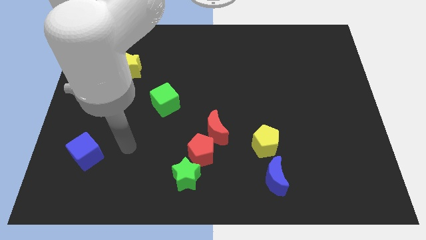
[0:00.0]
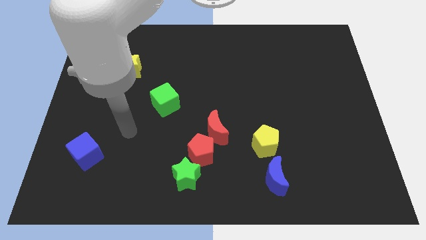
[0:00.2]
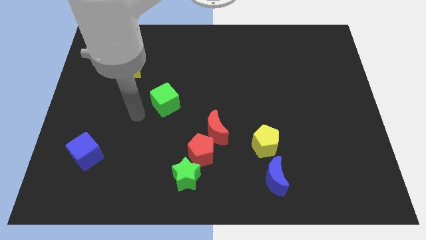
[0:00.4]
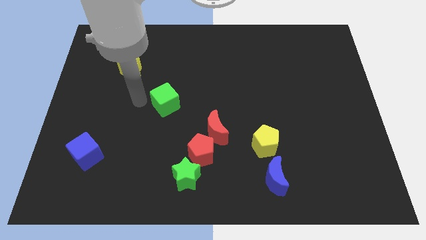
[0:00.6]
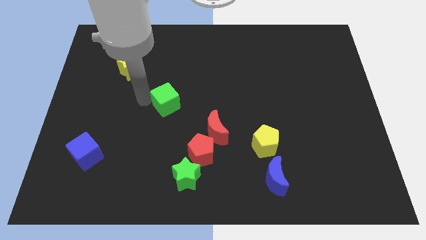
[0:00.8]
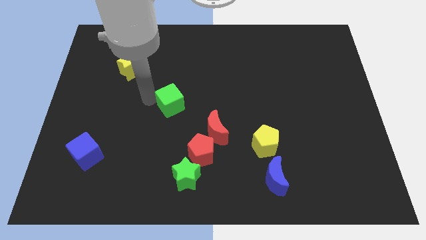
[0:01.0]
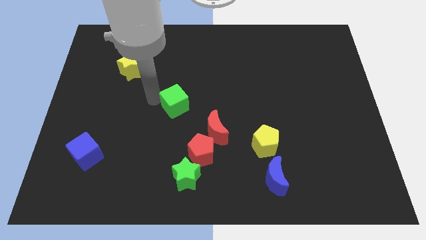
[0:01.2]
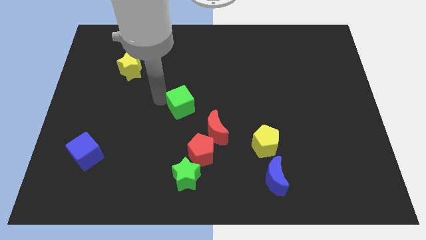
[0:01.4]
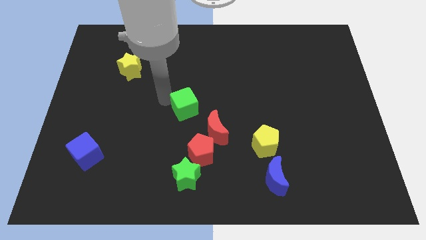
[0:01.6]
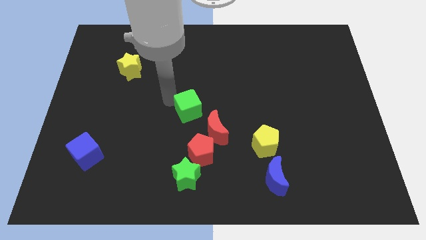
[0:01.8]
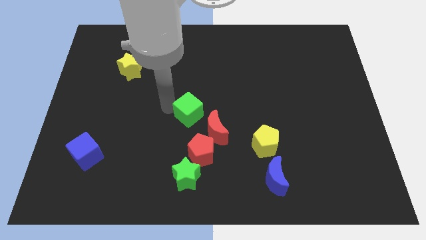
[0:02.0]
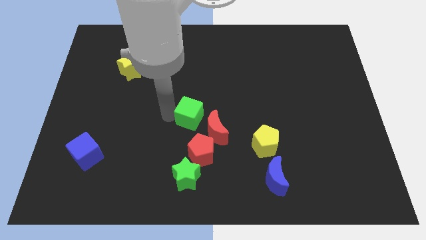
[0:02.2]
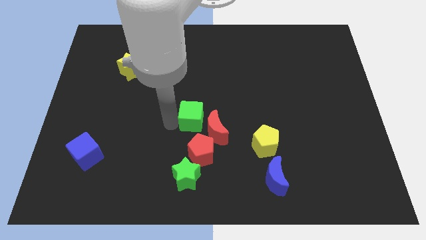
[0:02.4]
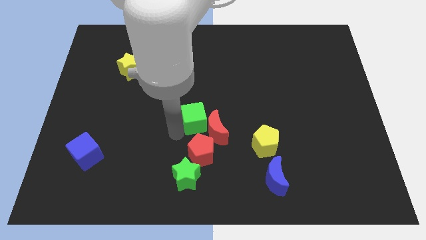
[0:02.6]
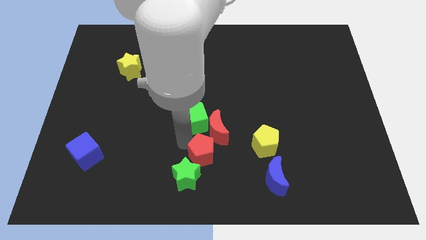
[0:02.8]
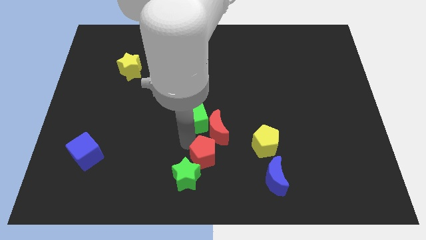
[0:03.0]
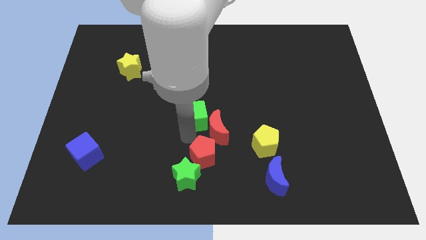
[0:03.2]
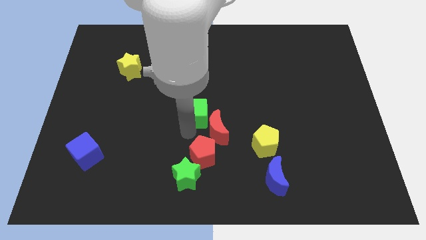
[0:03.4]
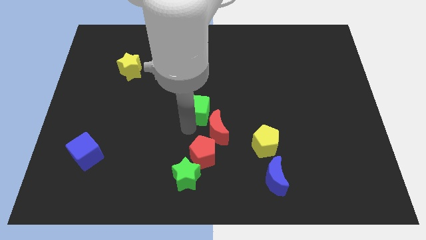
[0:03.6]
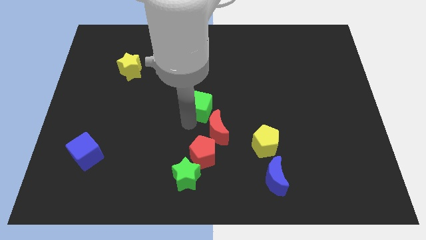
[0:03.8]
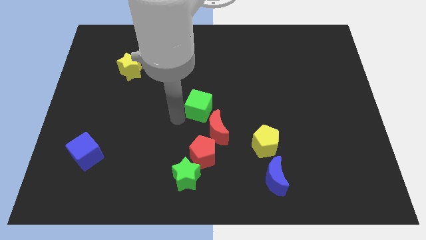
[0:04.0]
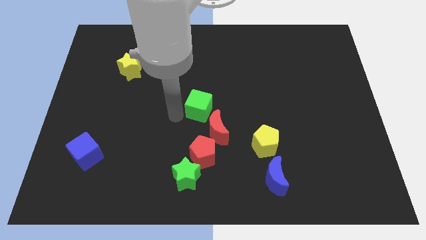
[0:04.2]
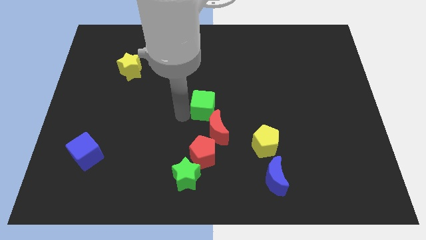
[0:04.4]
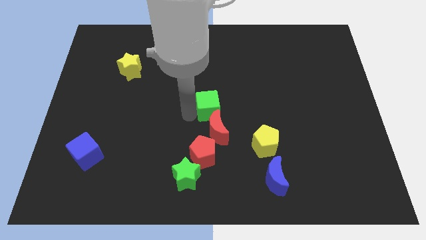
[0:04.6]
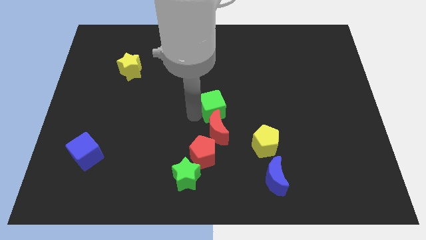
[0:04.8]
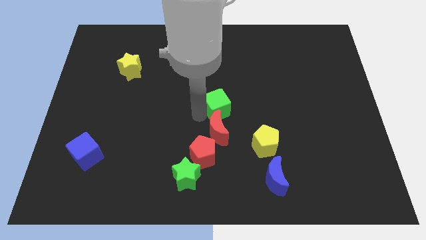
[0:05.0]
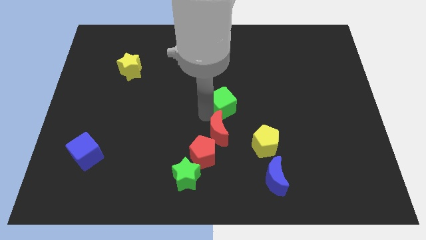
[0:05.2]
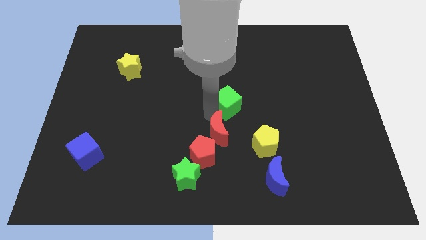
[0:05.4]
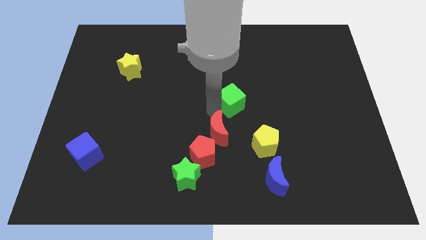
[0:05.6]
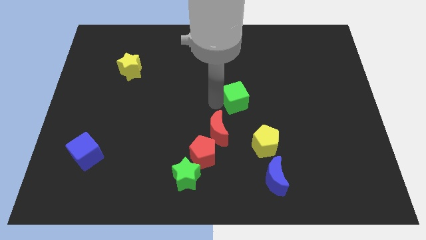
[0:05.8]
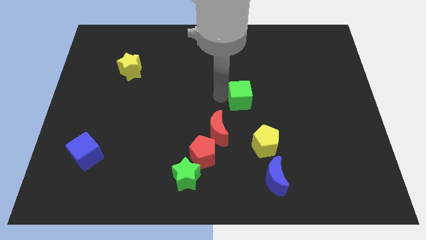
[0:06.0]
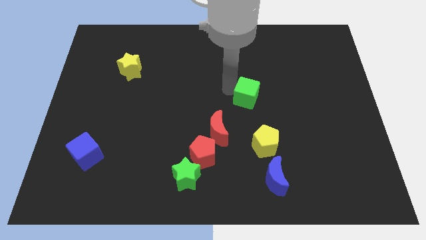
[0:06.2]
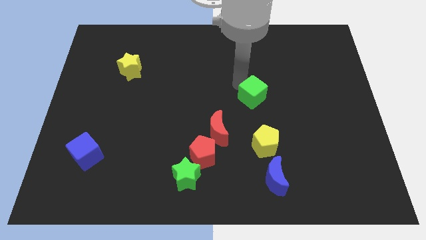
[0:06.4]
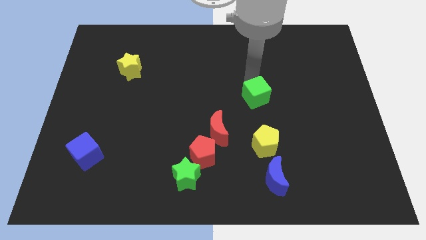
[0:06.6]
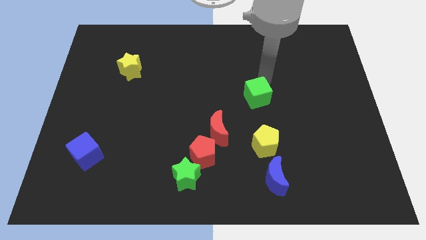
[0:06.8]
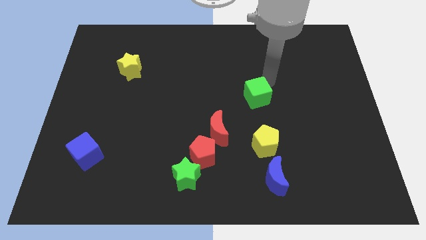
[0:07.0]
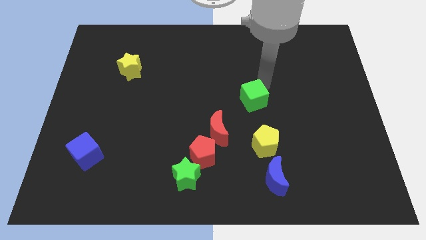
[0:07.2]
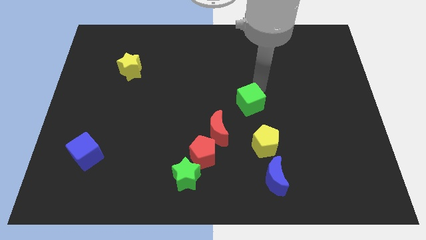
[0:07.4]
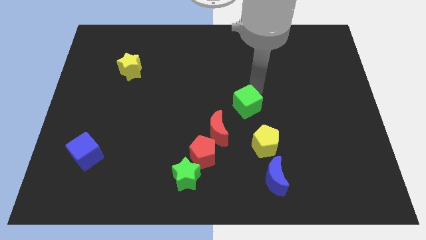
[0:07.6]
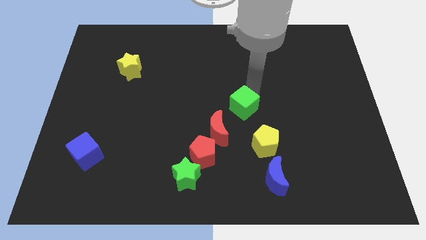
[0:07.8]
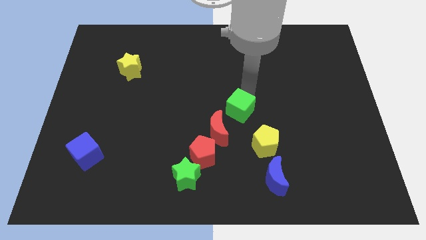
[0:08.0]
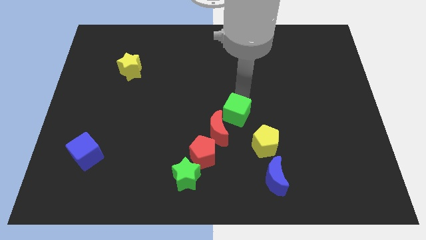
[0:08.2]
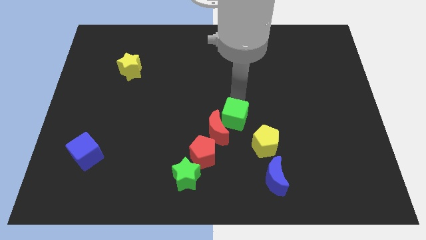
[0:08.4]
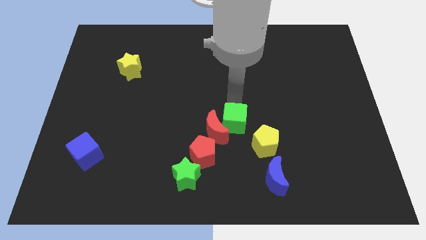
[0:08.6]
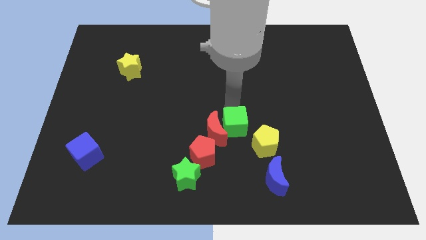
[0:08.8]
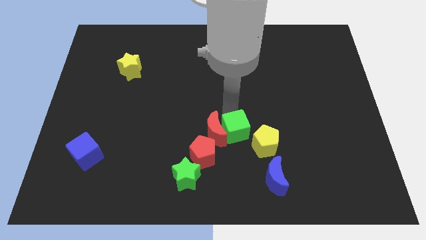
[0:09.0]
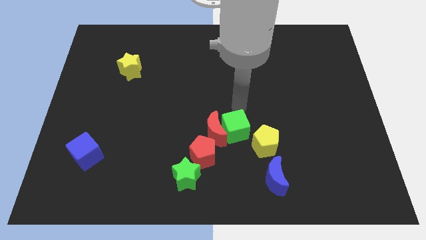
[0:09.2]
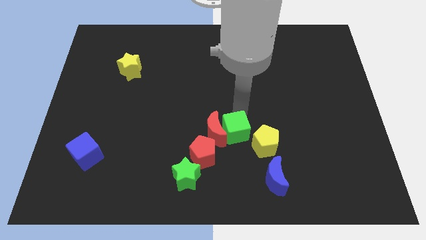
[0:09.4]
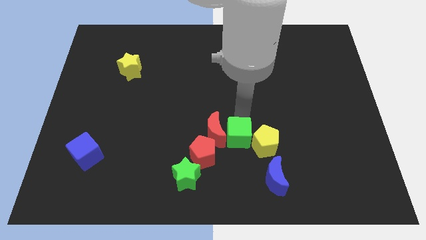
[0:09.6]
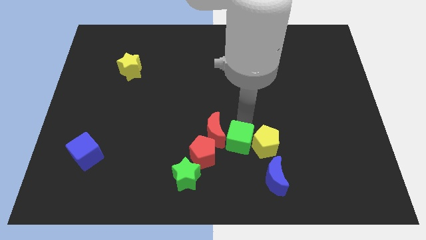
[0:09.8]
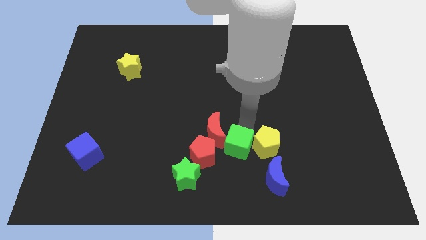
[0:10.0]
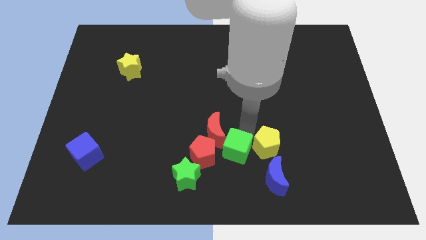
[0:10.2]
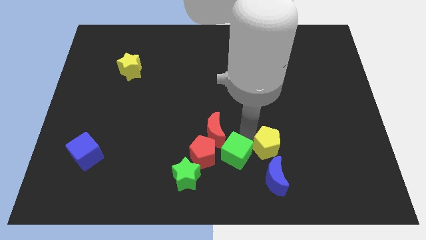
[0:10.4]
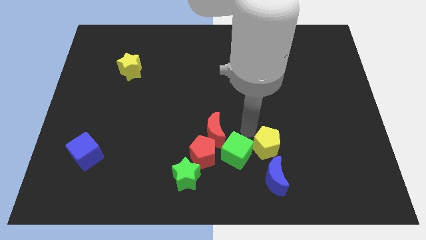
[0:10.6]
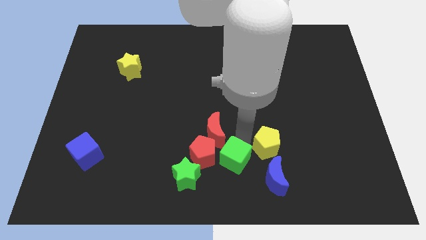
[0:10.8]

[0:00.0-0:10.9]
slide the green cube left of the blue moon

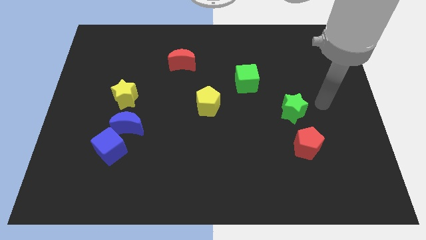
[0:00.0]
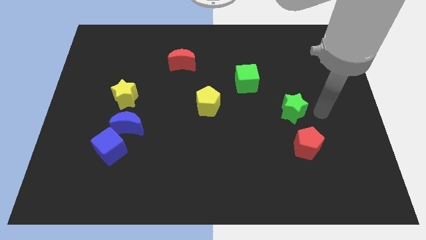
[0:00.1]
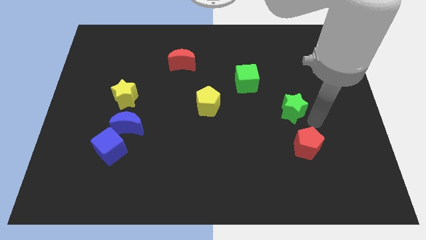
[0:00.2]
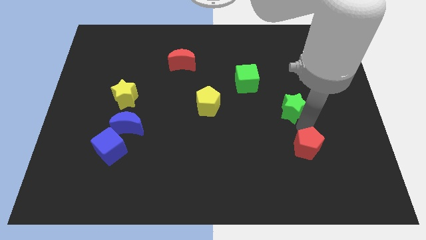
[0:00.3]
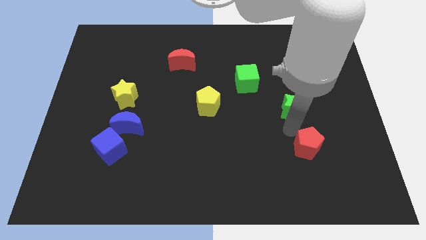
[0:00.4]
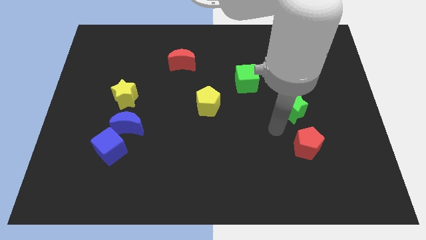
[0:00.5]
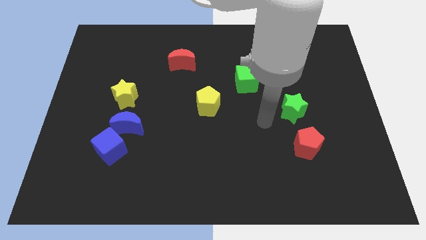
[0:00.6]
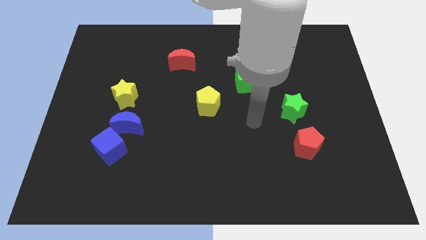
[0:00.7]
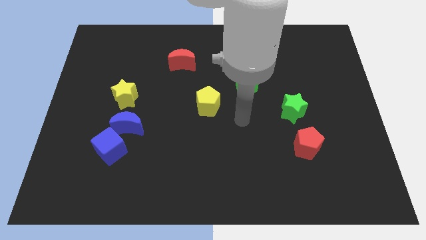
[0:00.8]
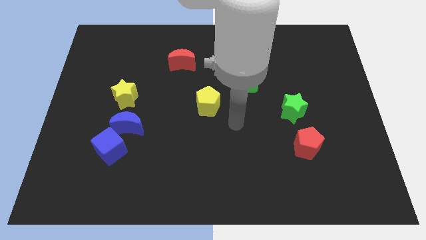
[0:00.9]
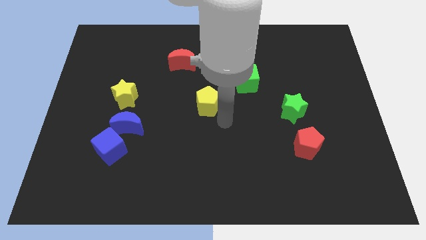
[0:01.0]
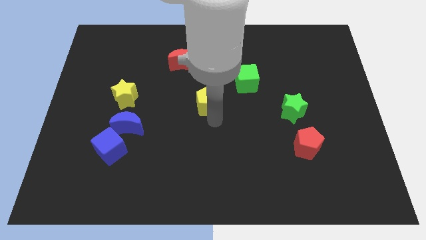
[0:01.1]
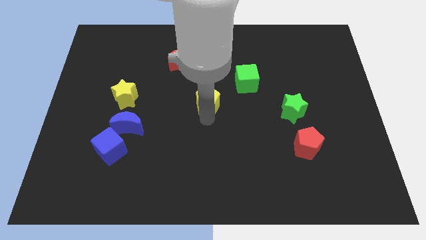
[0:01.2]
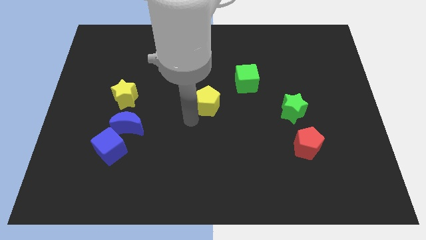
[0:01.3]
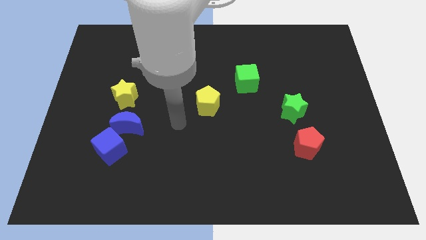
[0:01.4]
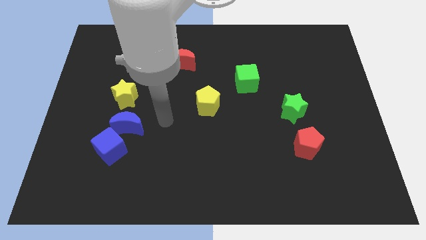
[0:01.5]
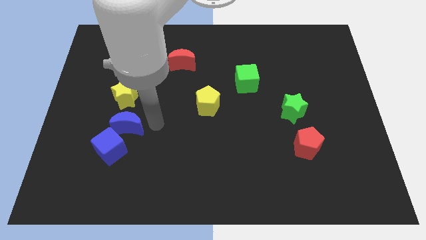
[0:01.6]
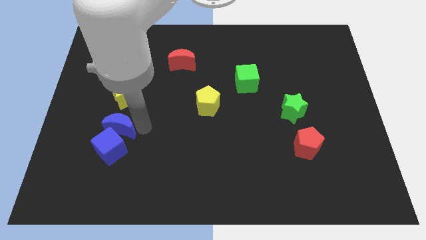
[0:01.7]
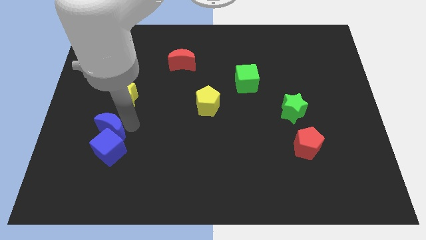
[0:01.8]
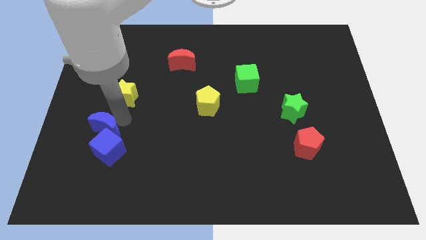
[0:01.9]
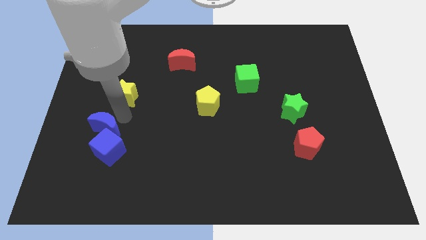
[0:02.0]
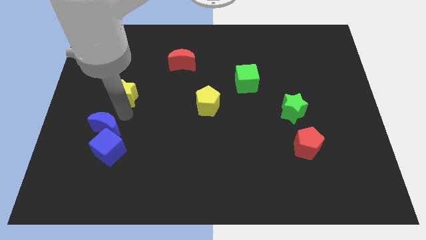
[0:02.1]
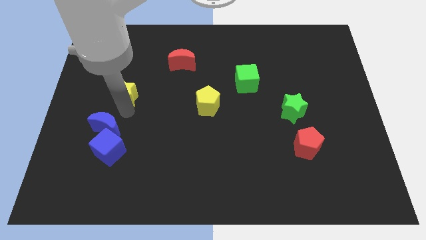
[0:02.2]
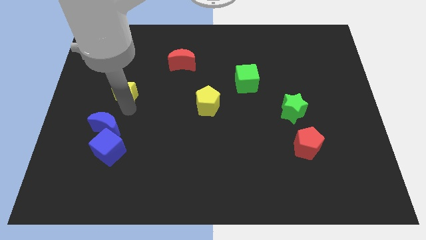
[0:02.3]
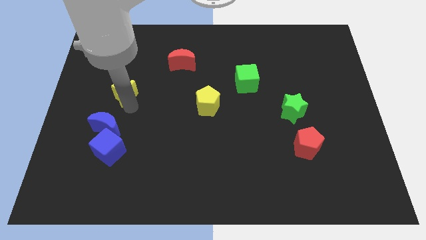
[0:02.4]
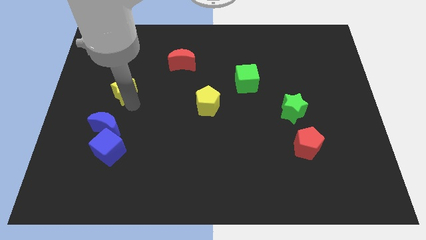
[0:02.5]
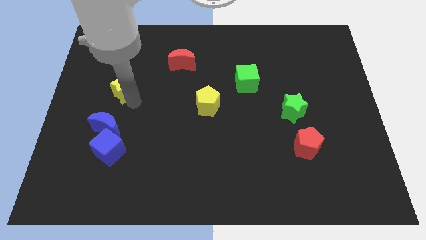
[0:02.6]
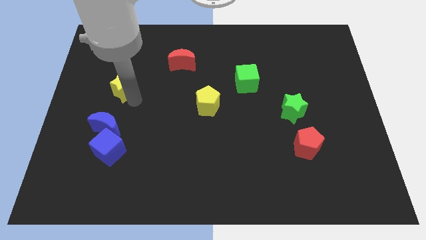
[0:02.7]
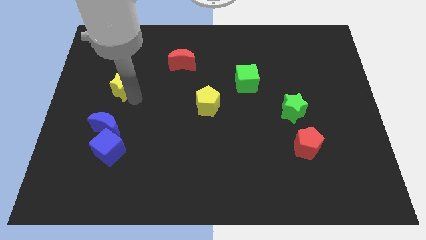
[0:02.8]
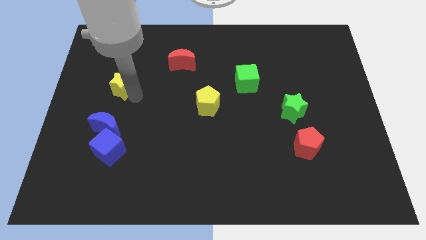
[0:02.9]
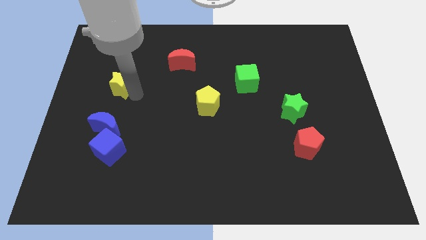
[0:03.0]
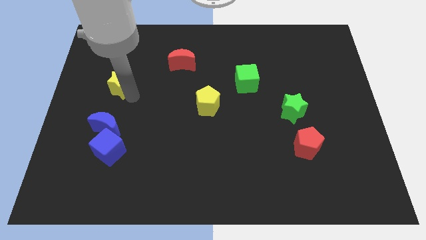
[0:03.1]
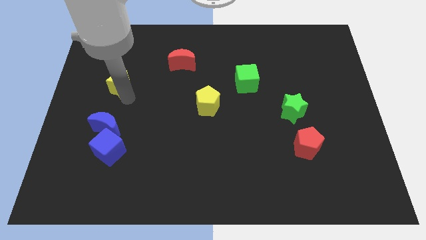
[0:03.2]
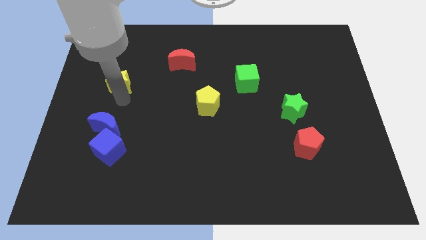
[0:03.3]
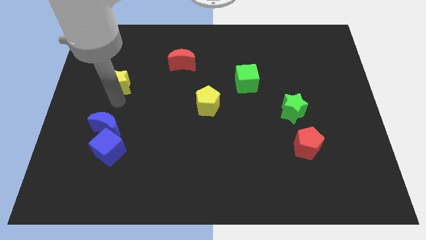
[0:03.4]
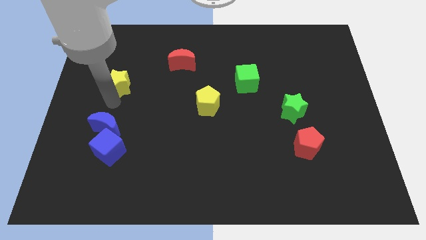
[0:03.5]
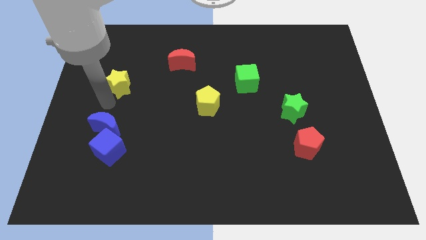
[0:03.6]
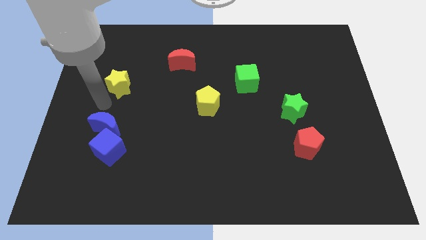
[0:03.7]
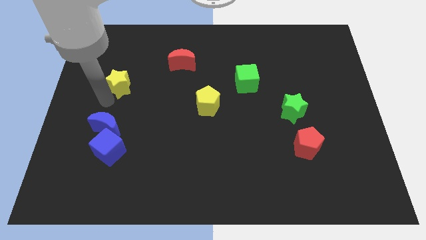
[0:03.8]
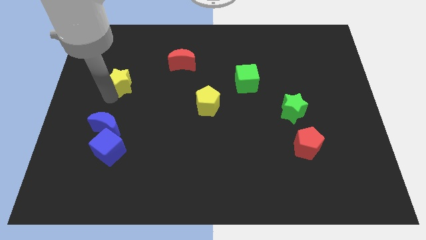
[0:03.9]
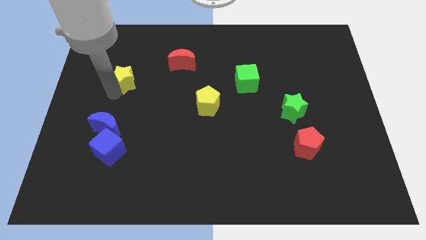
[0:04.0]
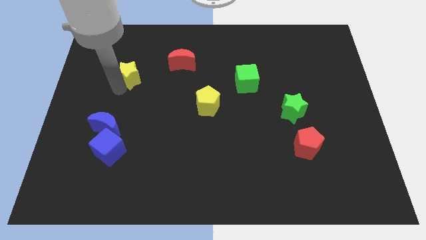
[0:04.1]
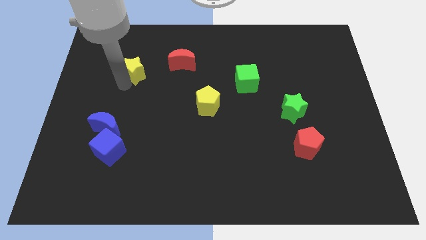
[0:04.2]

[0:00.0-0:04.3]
push the yellow star to the left of the red moon
